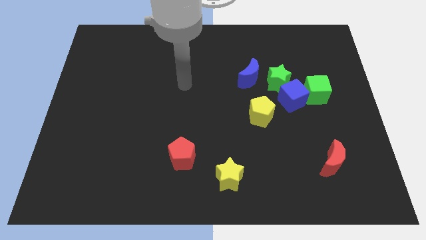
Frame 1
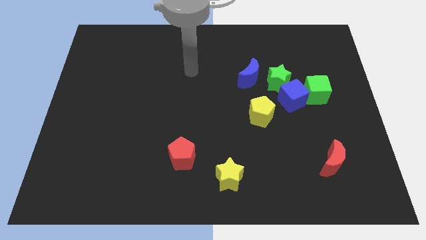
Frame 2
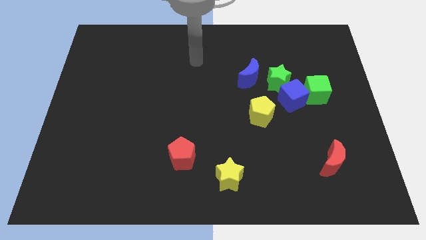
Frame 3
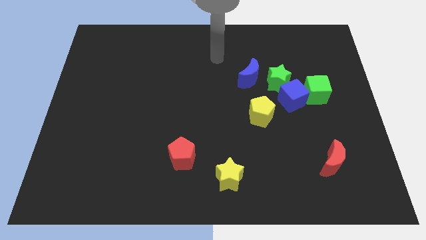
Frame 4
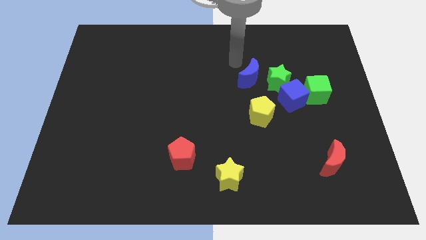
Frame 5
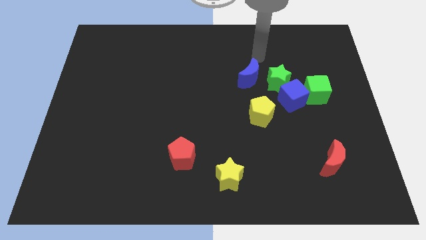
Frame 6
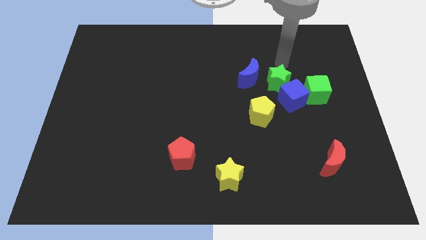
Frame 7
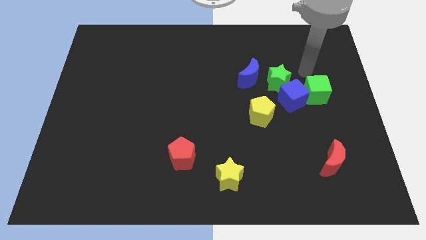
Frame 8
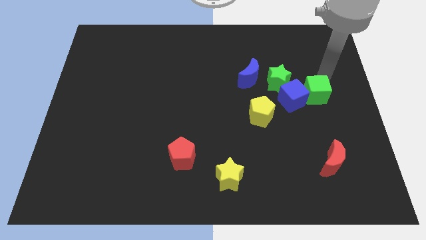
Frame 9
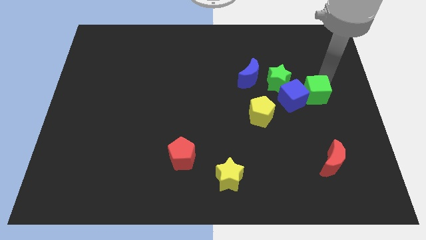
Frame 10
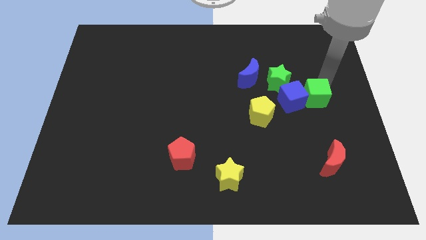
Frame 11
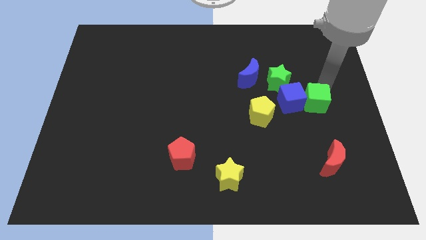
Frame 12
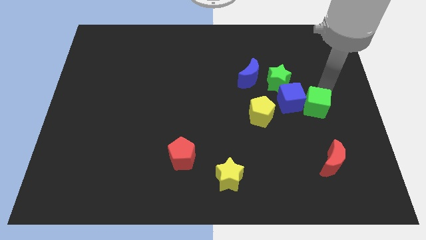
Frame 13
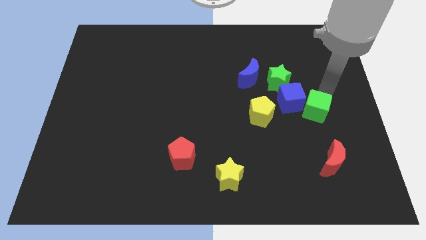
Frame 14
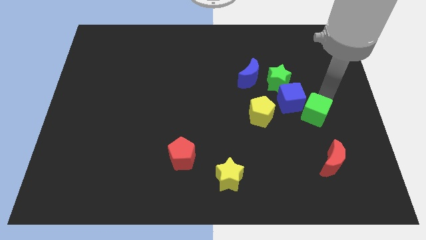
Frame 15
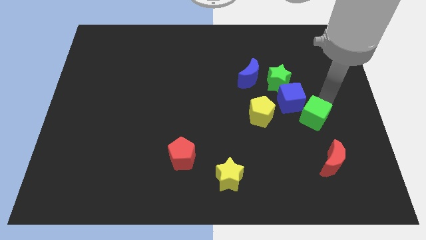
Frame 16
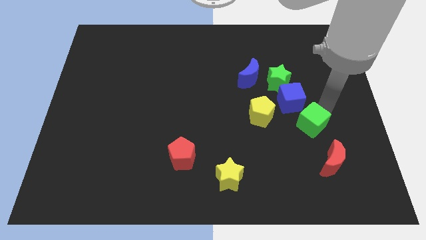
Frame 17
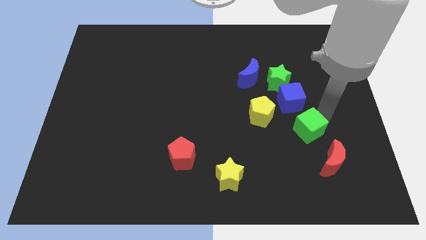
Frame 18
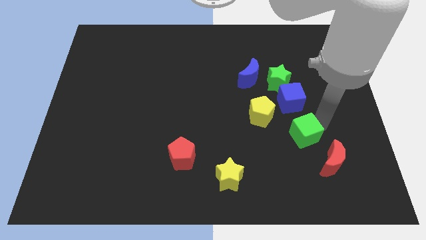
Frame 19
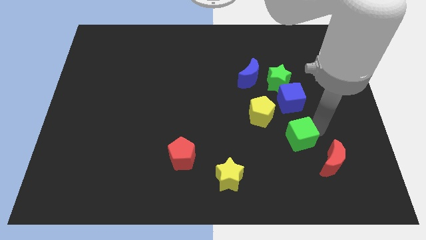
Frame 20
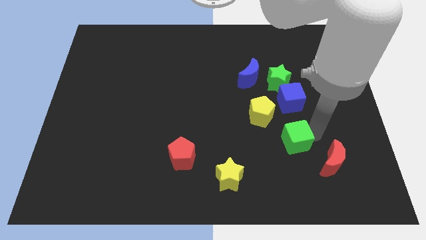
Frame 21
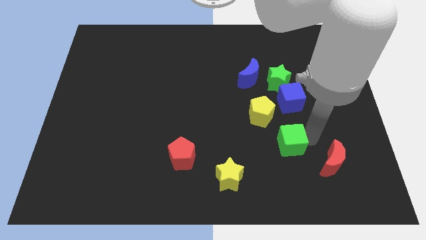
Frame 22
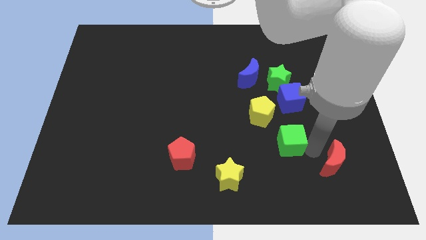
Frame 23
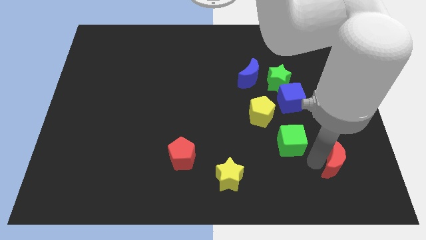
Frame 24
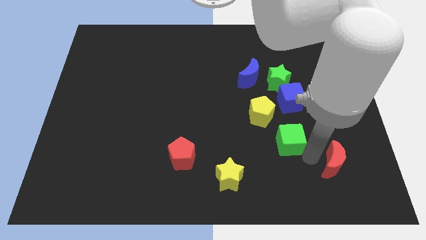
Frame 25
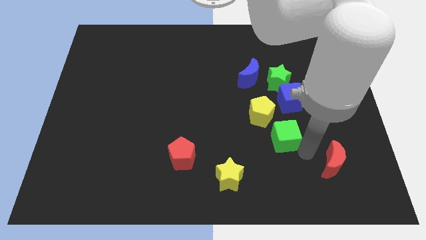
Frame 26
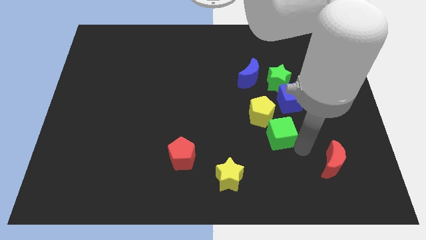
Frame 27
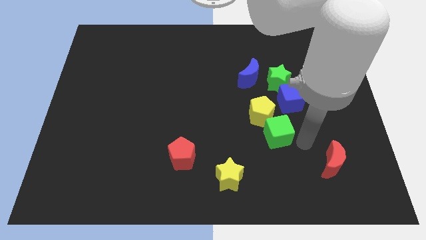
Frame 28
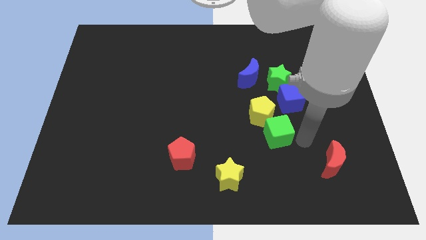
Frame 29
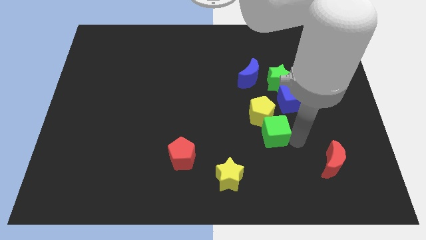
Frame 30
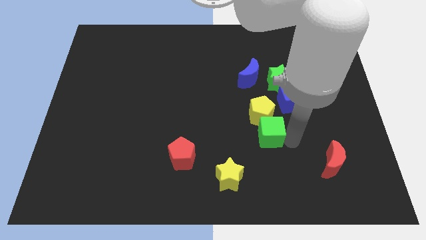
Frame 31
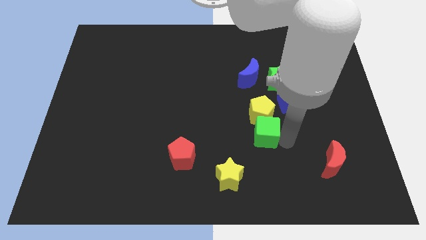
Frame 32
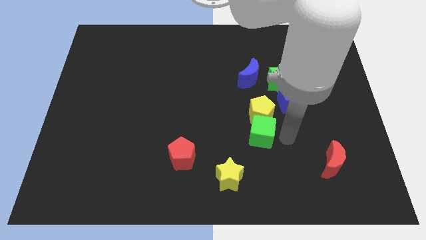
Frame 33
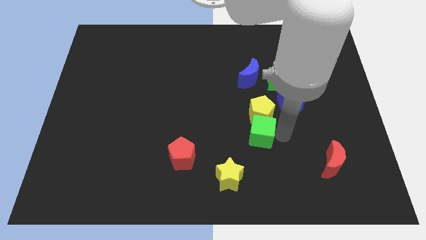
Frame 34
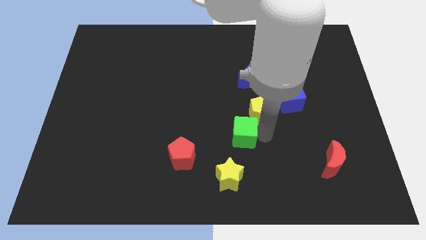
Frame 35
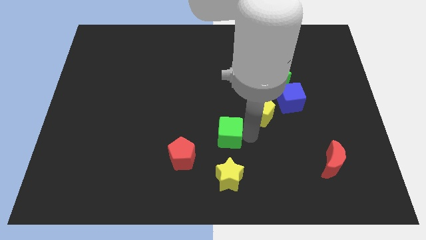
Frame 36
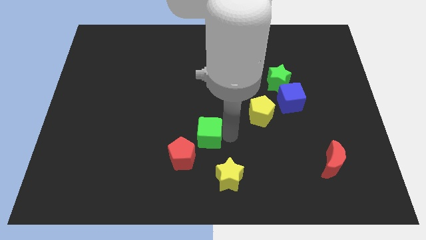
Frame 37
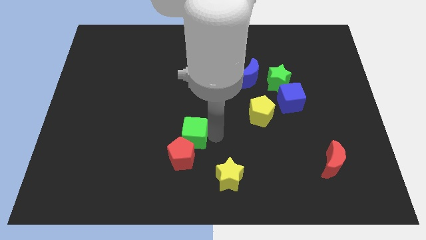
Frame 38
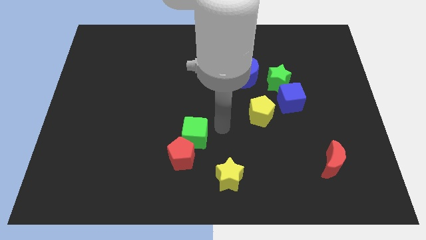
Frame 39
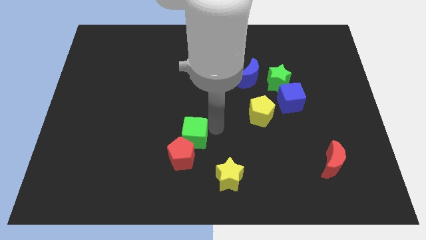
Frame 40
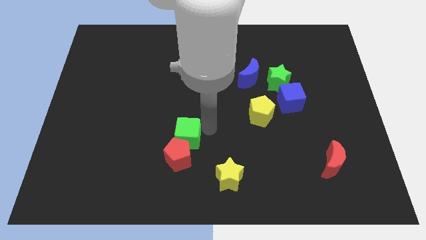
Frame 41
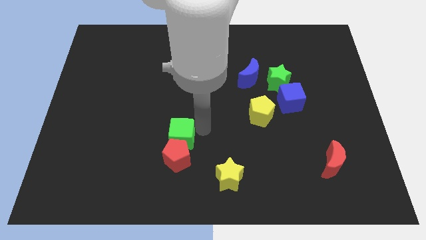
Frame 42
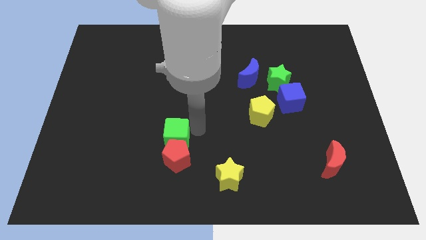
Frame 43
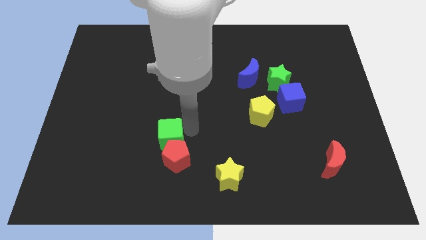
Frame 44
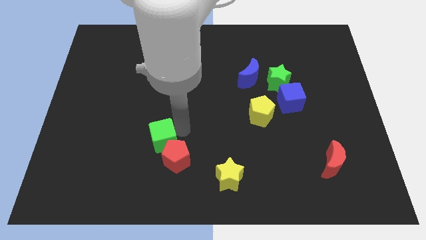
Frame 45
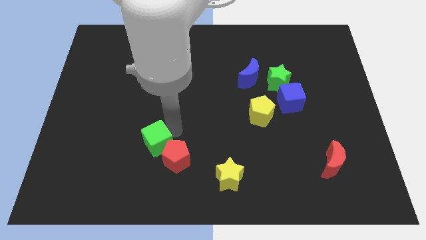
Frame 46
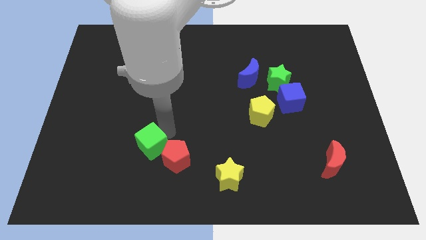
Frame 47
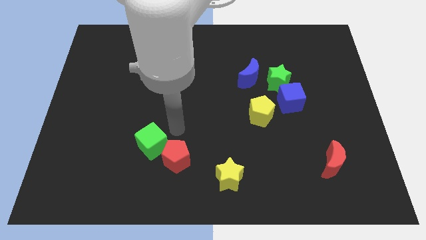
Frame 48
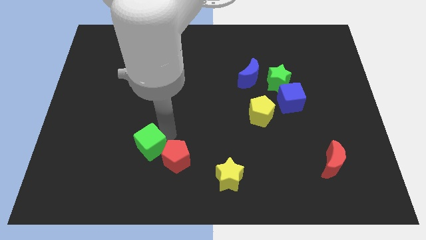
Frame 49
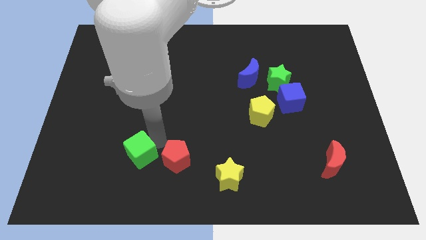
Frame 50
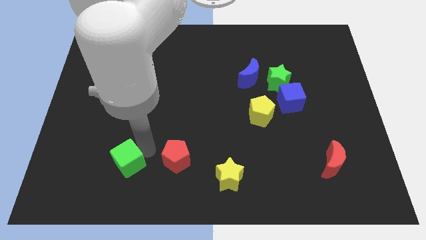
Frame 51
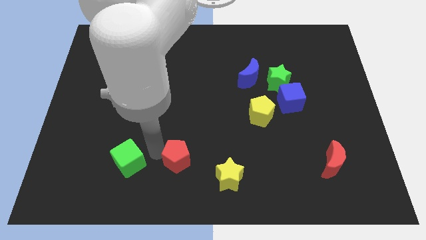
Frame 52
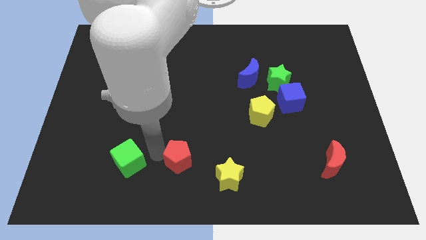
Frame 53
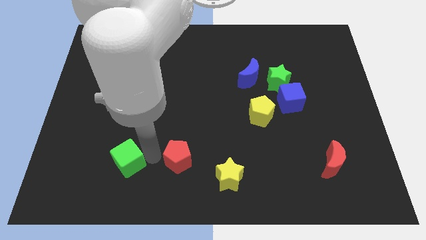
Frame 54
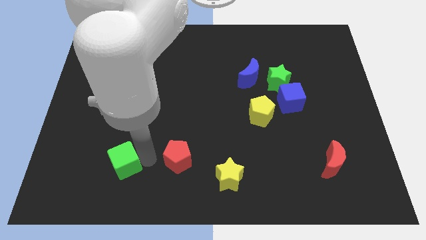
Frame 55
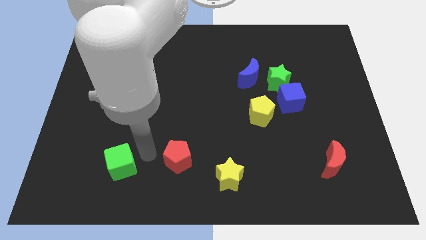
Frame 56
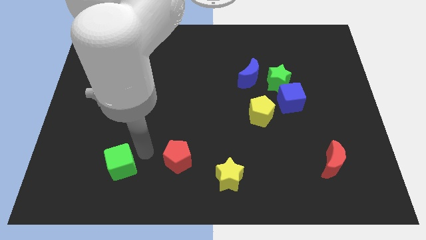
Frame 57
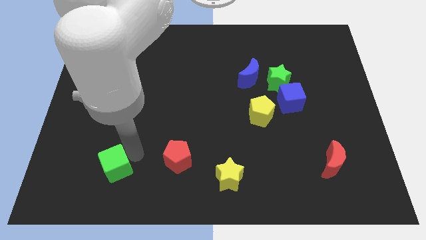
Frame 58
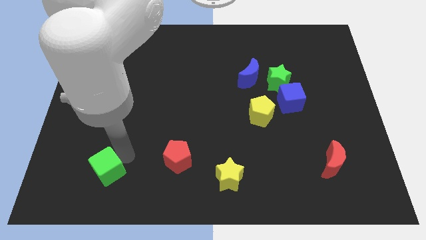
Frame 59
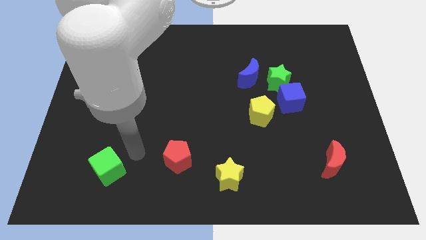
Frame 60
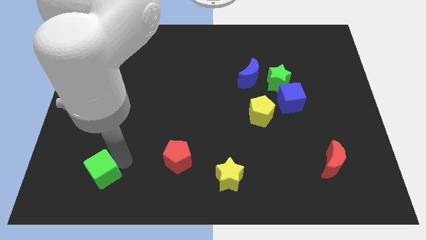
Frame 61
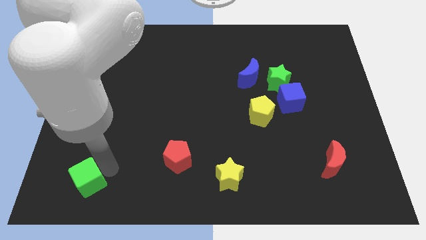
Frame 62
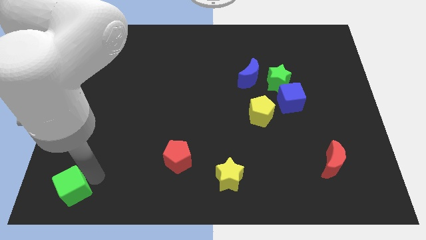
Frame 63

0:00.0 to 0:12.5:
move the green cube to the bottom left

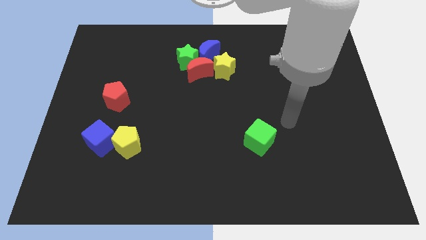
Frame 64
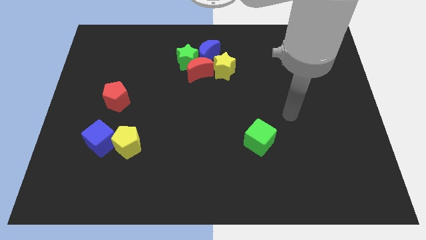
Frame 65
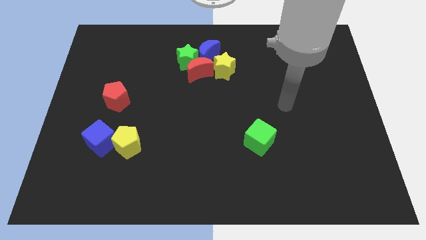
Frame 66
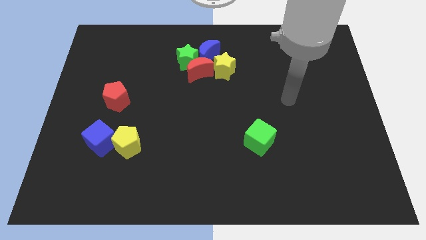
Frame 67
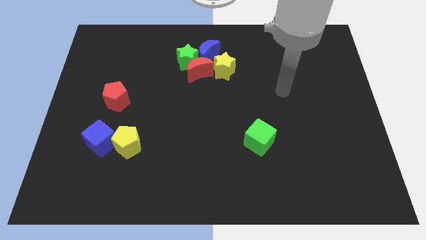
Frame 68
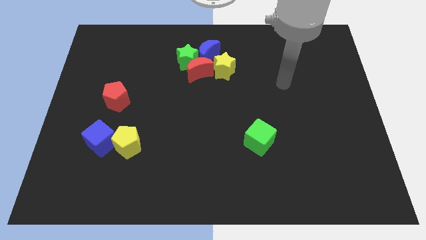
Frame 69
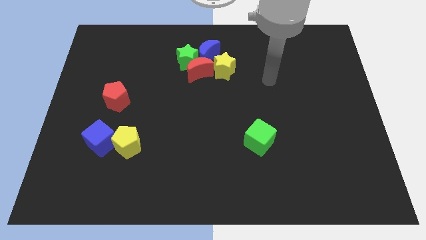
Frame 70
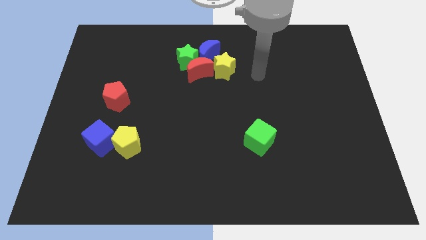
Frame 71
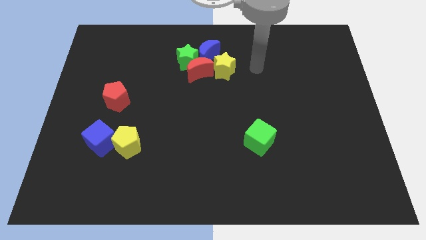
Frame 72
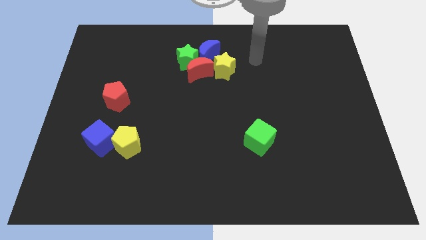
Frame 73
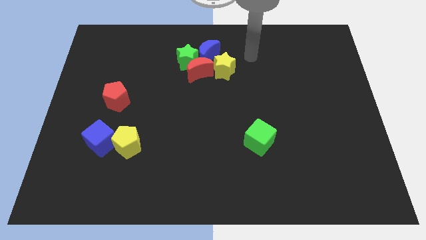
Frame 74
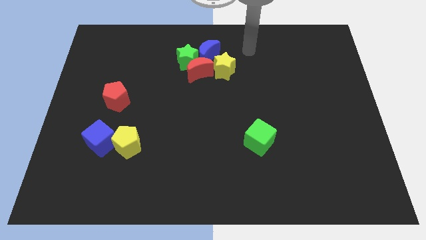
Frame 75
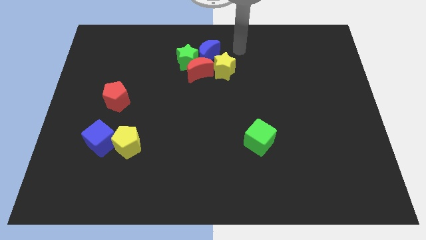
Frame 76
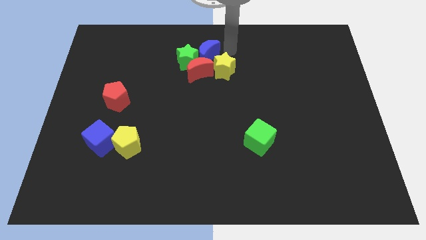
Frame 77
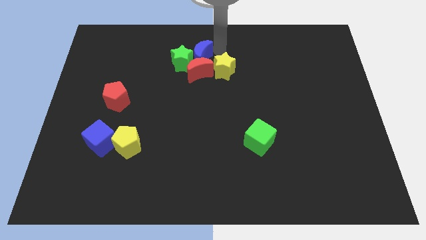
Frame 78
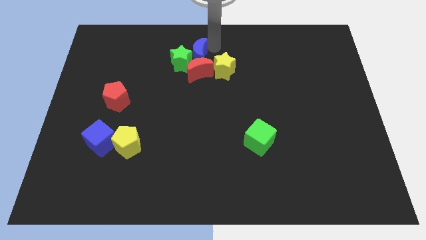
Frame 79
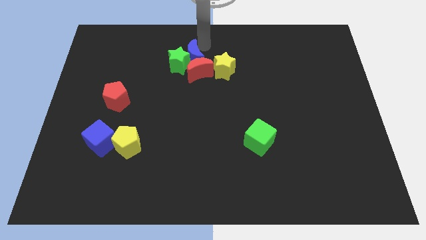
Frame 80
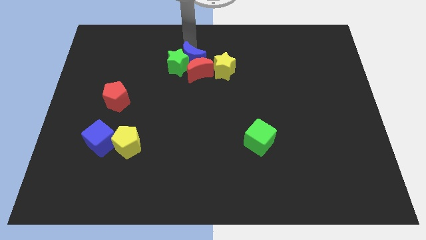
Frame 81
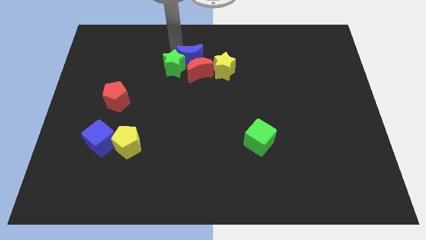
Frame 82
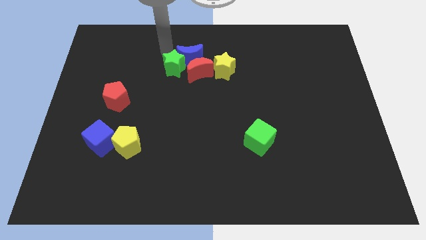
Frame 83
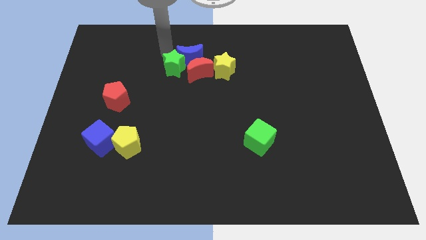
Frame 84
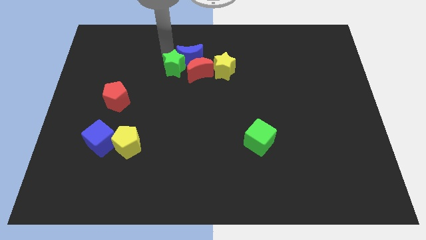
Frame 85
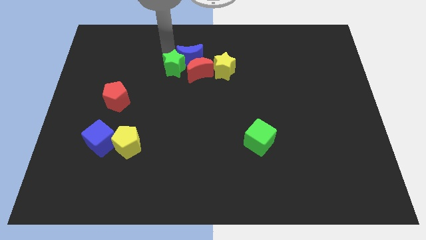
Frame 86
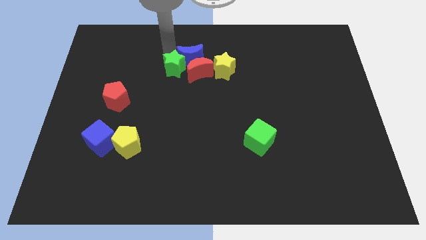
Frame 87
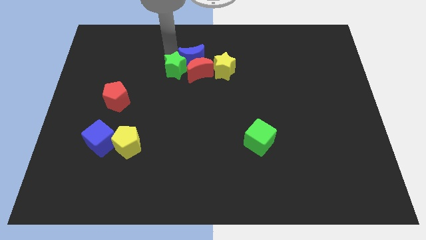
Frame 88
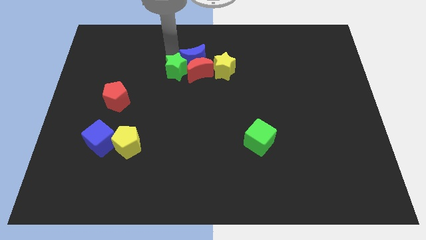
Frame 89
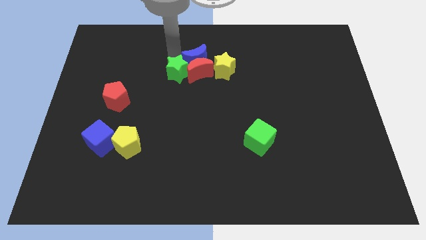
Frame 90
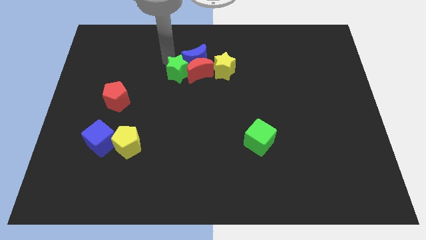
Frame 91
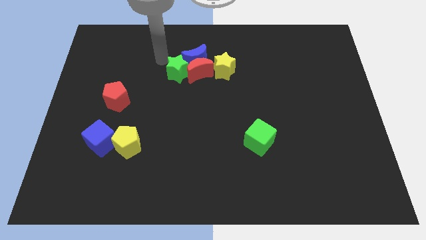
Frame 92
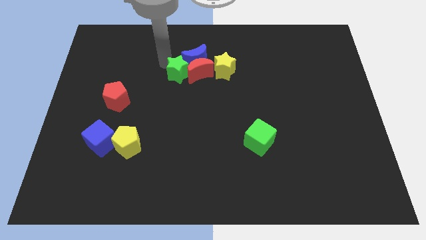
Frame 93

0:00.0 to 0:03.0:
push the green star to the center of the board
